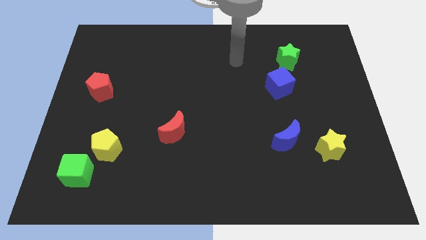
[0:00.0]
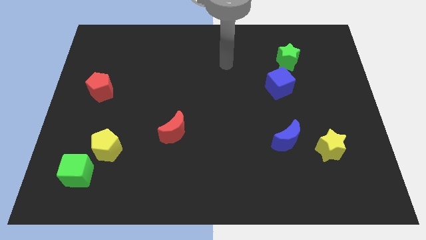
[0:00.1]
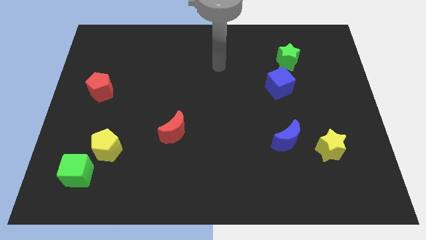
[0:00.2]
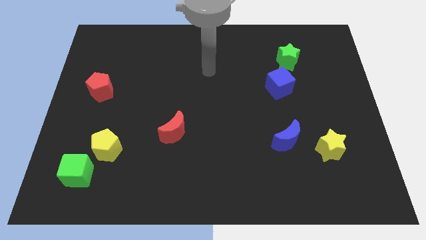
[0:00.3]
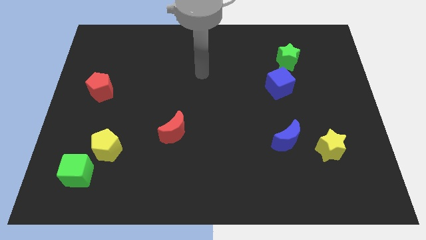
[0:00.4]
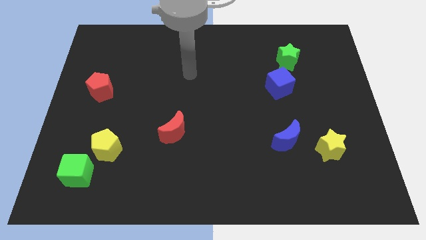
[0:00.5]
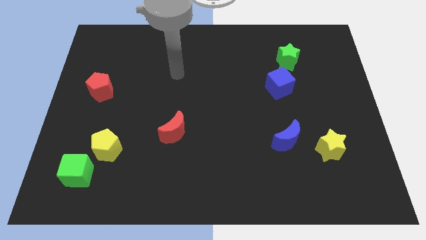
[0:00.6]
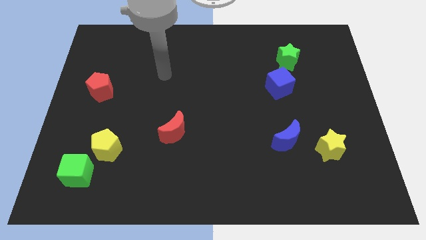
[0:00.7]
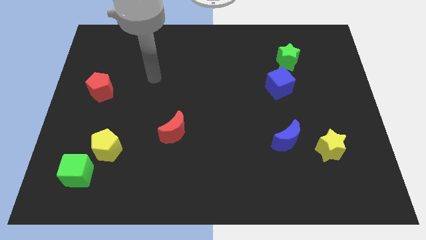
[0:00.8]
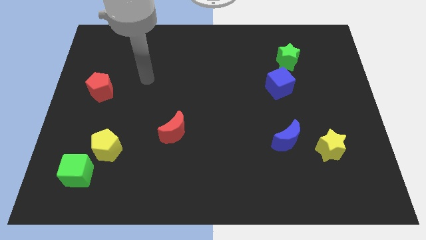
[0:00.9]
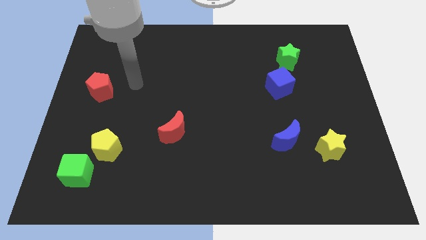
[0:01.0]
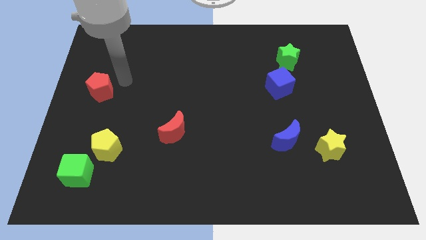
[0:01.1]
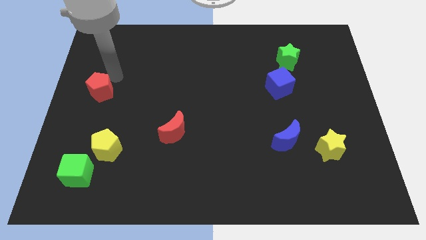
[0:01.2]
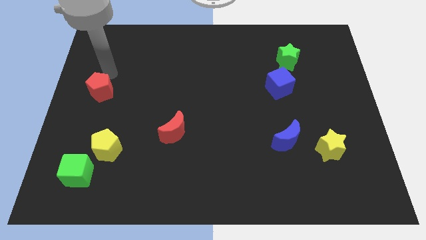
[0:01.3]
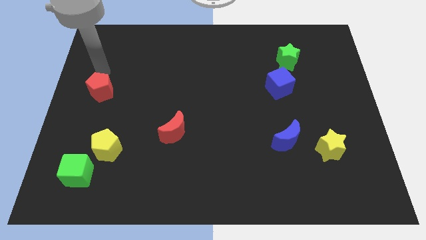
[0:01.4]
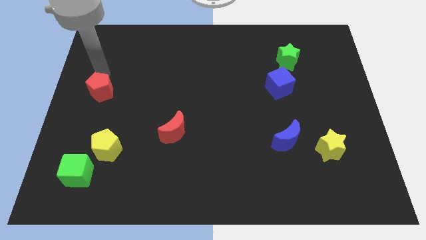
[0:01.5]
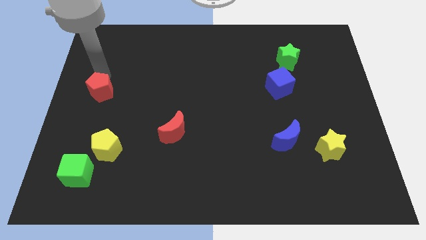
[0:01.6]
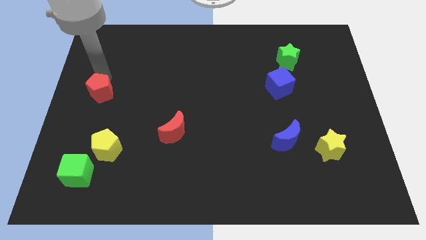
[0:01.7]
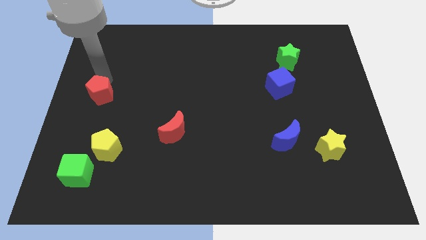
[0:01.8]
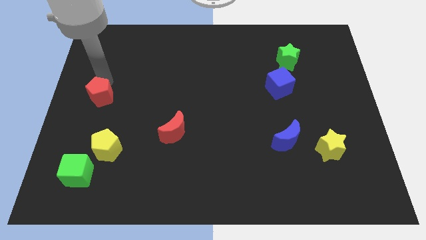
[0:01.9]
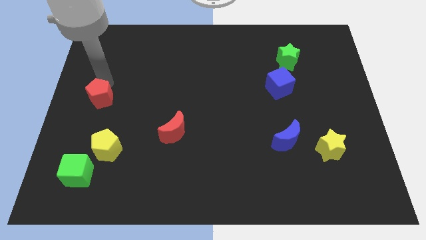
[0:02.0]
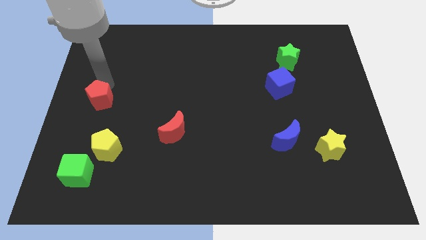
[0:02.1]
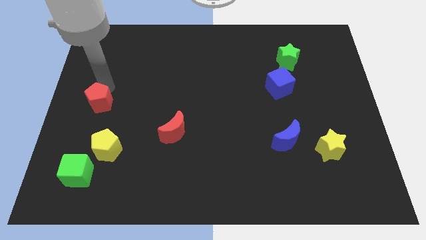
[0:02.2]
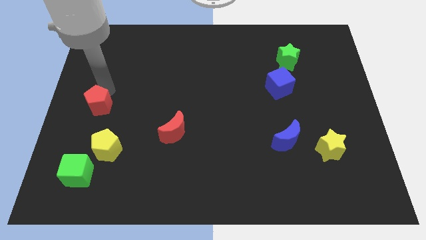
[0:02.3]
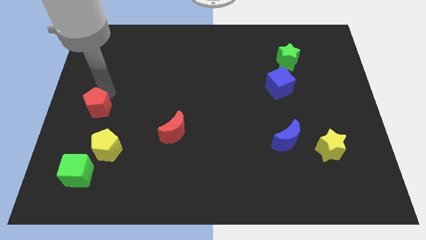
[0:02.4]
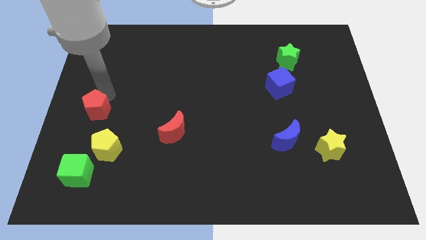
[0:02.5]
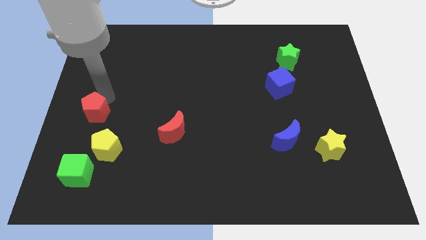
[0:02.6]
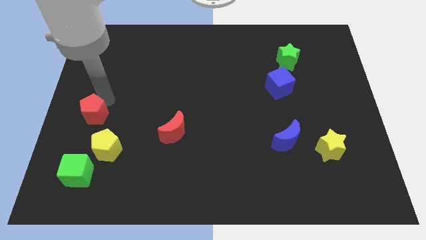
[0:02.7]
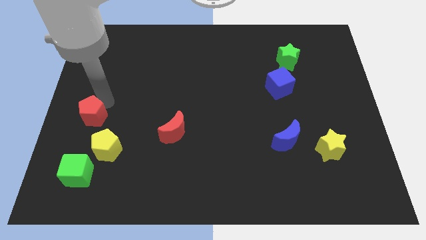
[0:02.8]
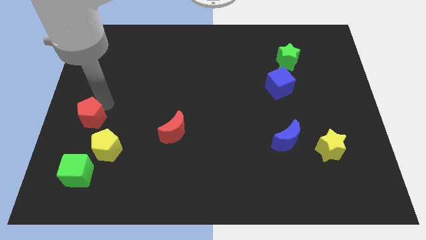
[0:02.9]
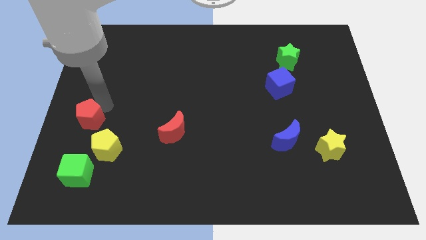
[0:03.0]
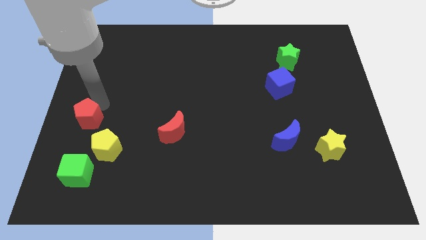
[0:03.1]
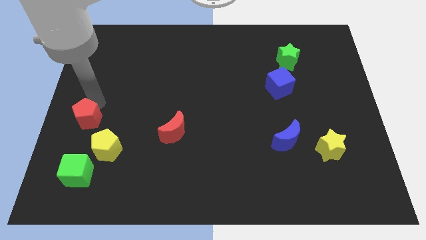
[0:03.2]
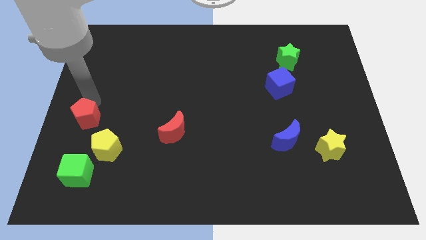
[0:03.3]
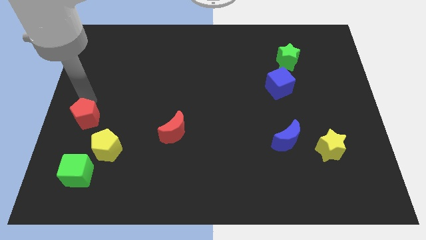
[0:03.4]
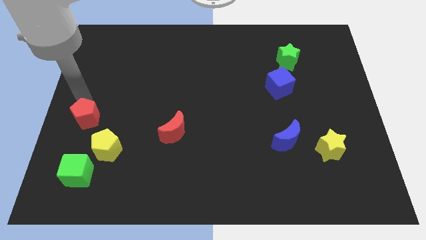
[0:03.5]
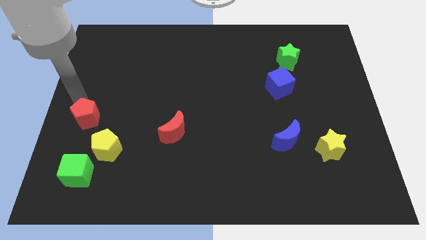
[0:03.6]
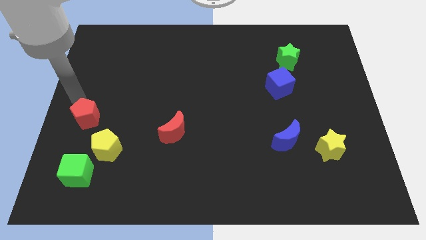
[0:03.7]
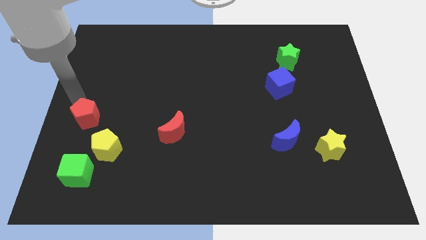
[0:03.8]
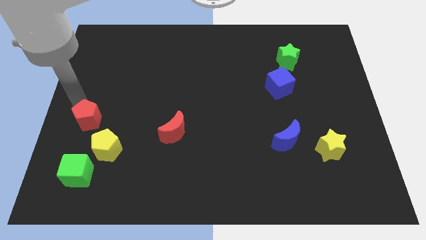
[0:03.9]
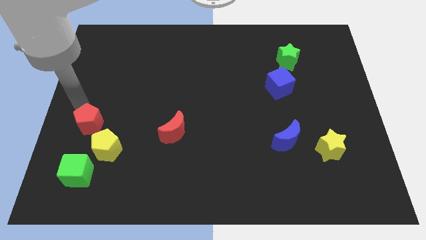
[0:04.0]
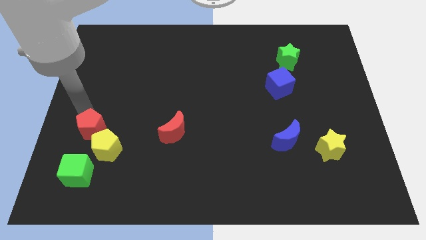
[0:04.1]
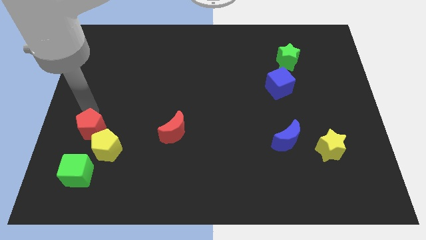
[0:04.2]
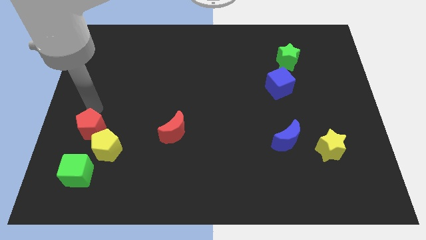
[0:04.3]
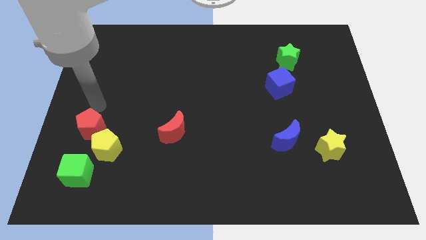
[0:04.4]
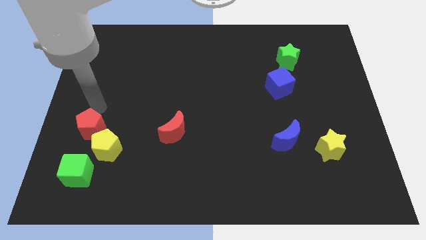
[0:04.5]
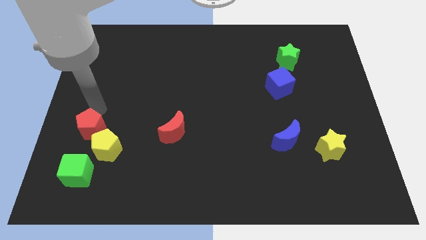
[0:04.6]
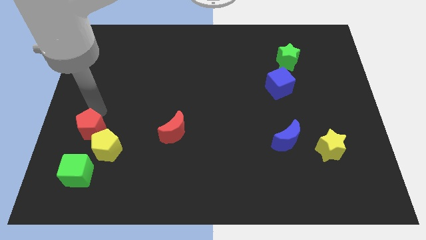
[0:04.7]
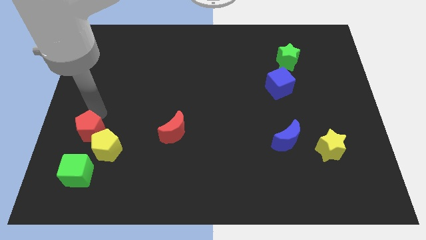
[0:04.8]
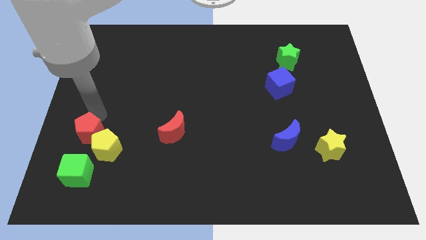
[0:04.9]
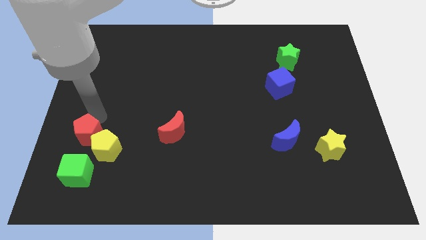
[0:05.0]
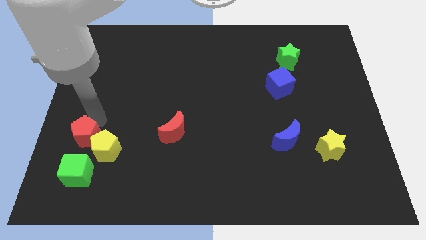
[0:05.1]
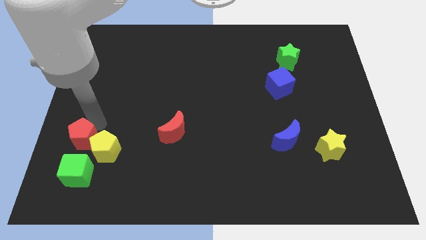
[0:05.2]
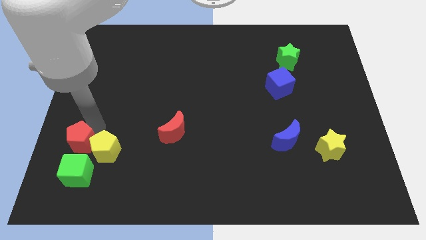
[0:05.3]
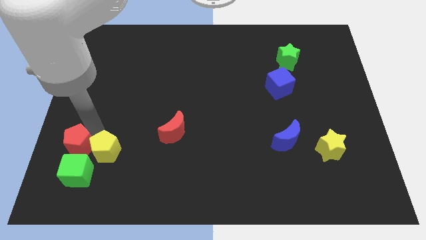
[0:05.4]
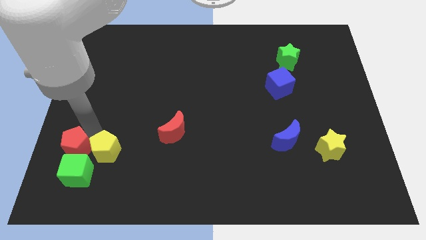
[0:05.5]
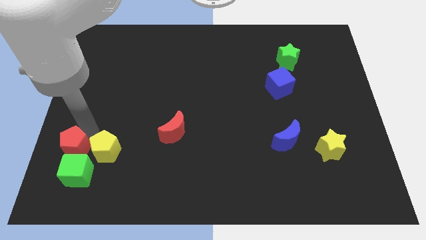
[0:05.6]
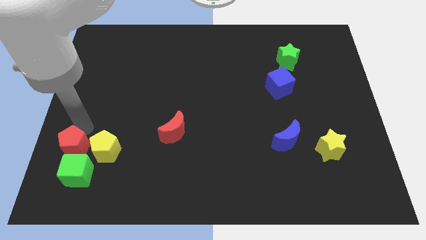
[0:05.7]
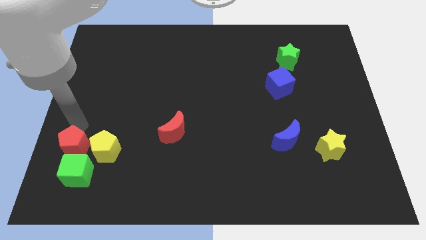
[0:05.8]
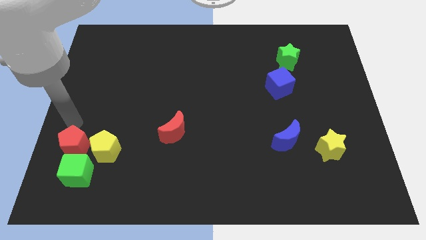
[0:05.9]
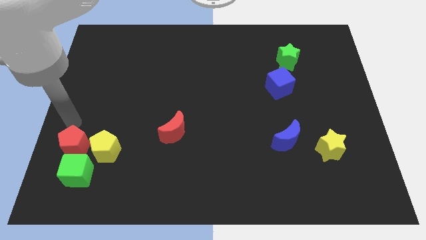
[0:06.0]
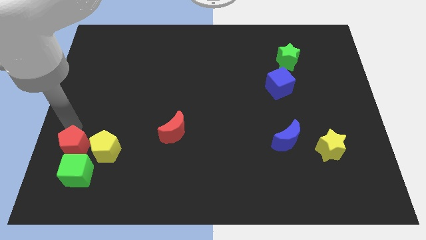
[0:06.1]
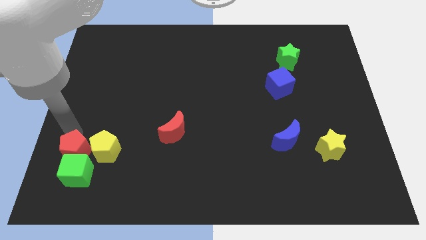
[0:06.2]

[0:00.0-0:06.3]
put the red pentagon to the green cube

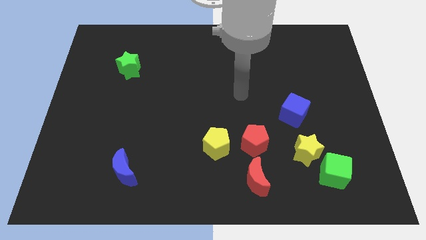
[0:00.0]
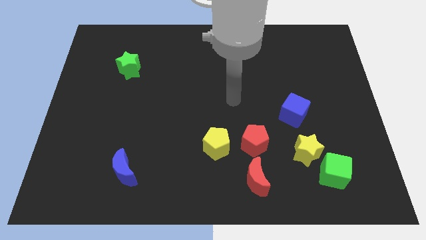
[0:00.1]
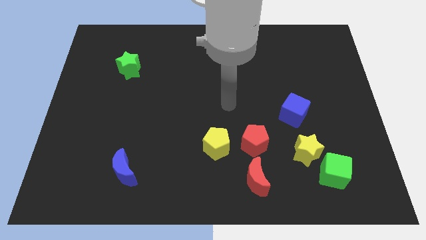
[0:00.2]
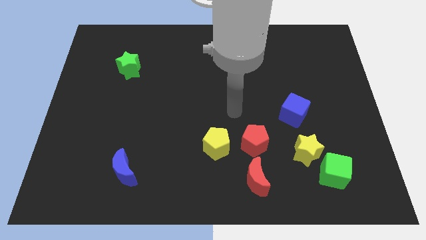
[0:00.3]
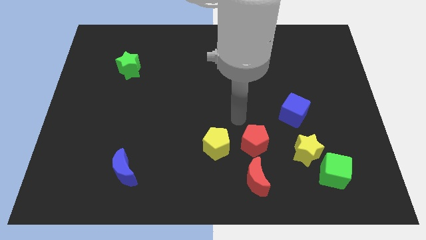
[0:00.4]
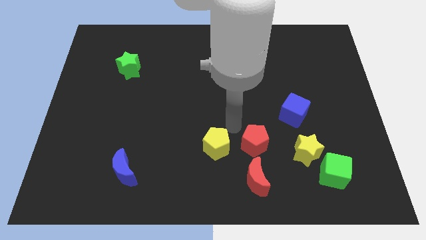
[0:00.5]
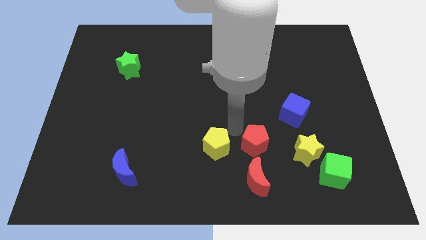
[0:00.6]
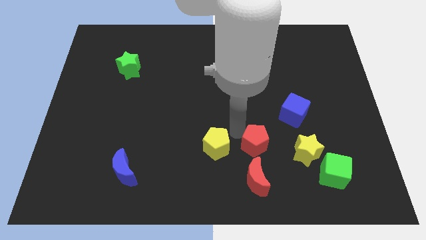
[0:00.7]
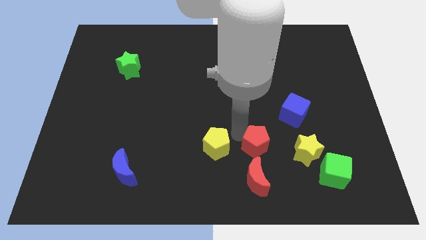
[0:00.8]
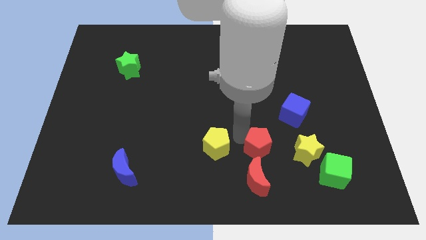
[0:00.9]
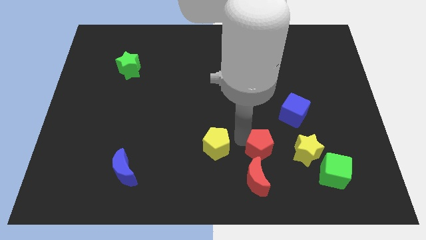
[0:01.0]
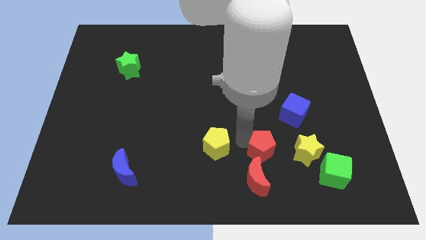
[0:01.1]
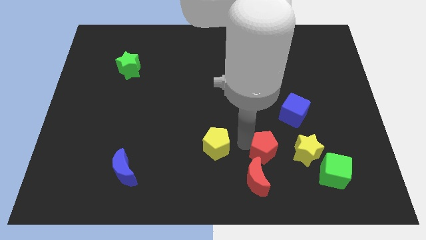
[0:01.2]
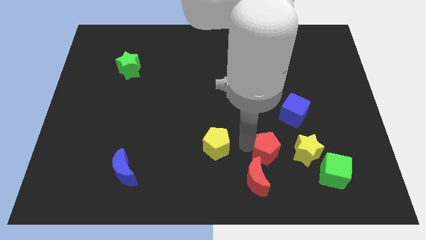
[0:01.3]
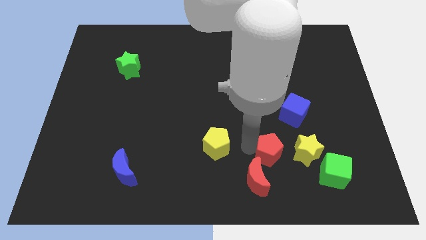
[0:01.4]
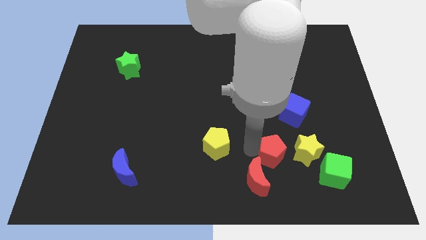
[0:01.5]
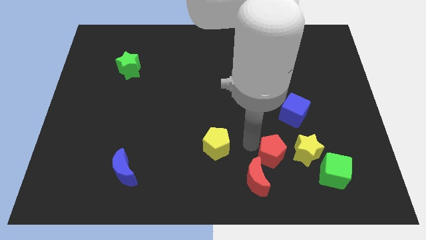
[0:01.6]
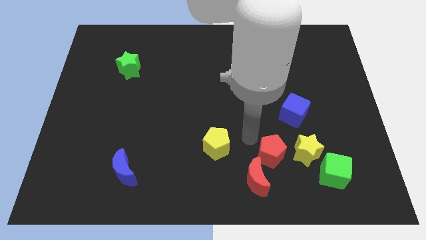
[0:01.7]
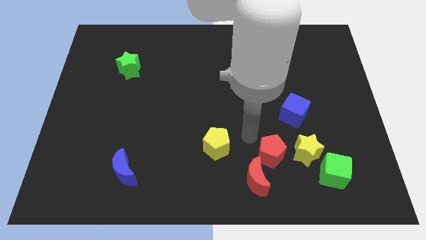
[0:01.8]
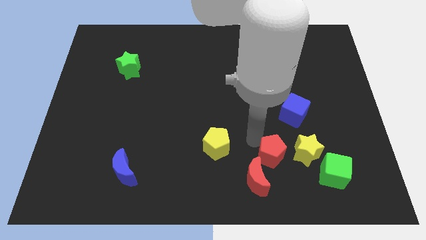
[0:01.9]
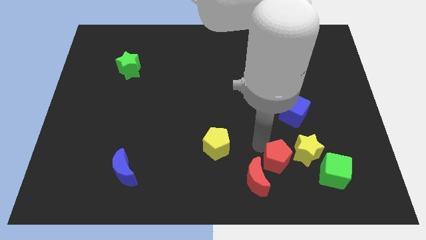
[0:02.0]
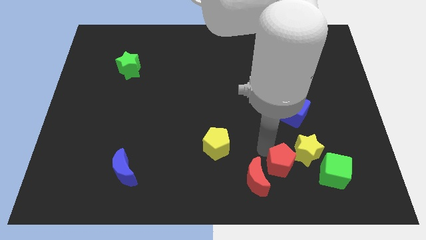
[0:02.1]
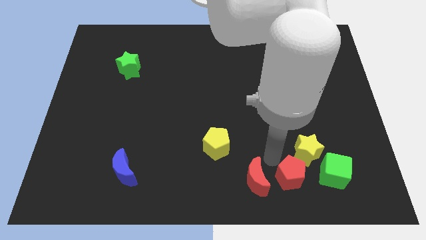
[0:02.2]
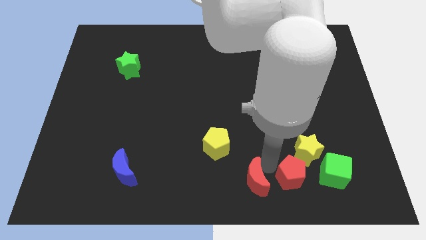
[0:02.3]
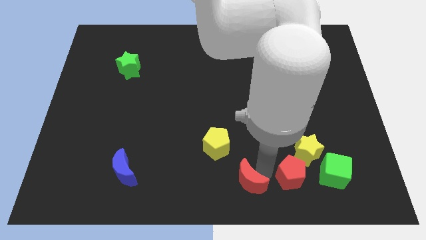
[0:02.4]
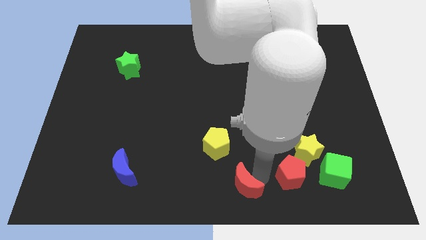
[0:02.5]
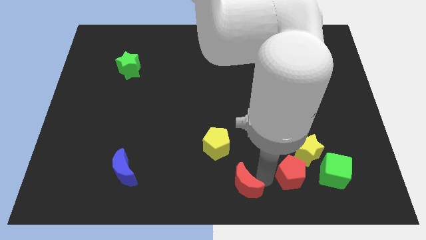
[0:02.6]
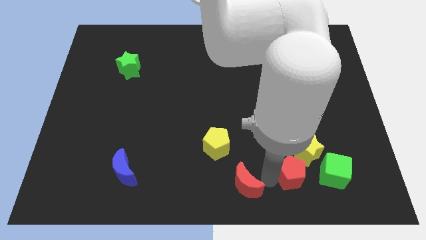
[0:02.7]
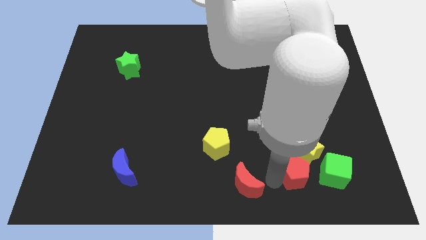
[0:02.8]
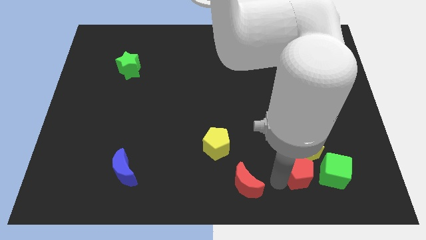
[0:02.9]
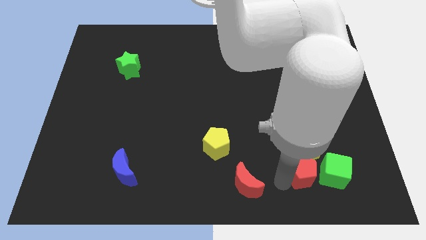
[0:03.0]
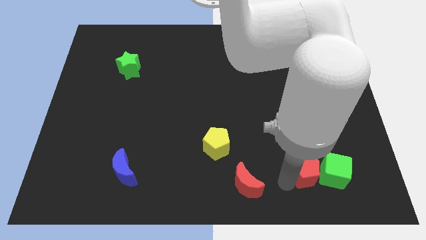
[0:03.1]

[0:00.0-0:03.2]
move the red pentagon next to the green cube
